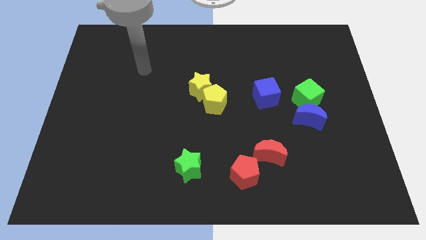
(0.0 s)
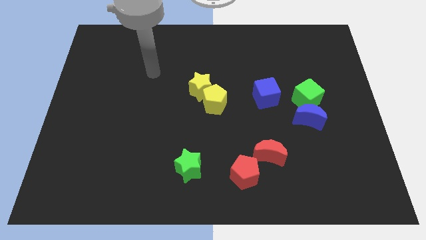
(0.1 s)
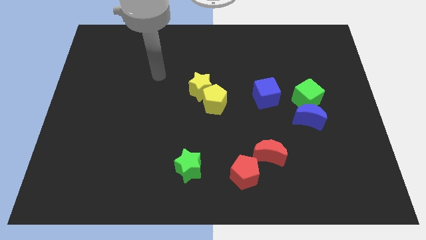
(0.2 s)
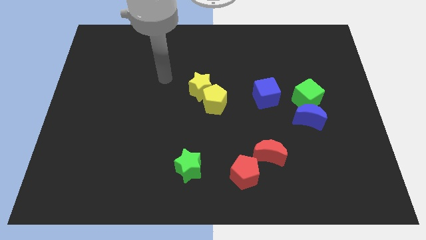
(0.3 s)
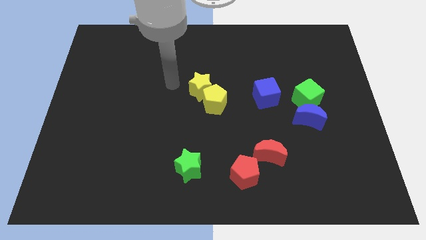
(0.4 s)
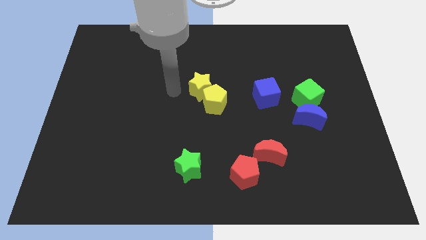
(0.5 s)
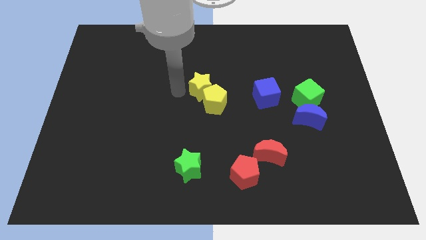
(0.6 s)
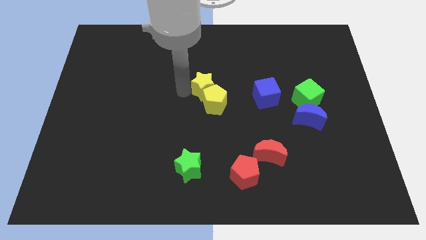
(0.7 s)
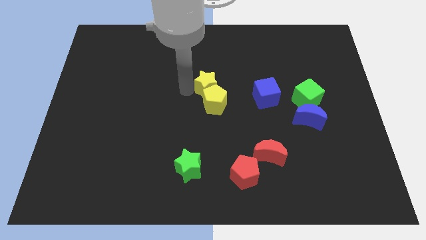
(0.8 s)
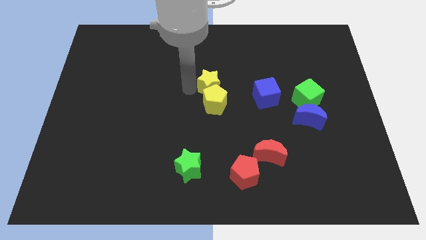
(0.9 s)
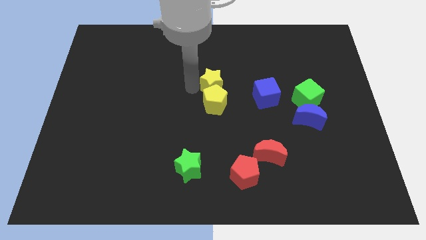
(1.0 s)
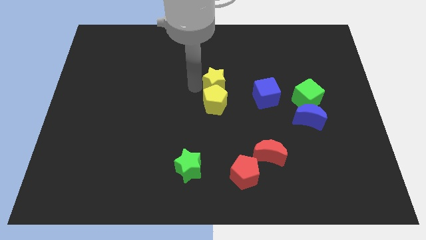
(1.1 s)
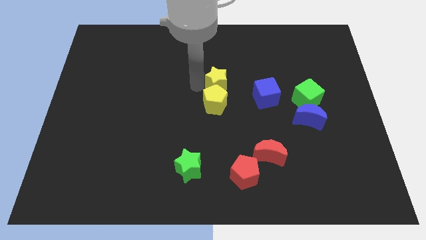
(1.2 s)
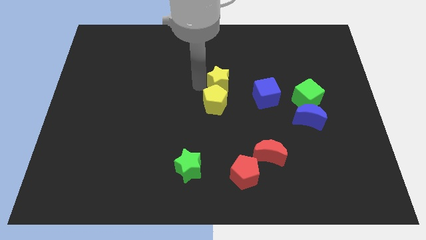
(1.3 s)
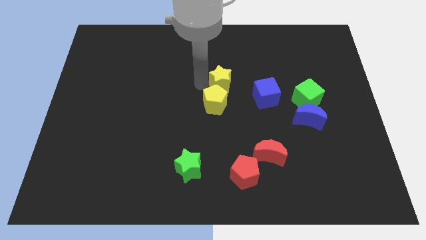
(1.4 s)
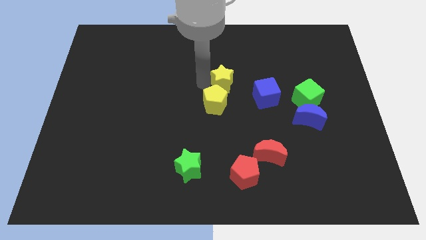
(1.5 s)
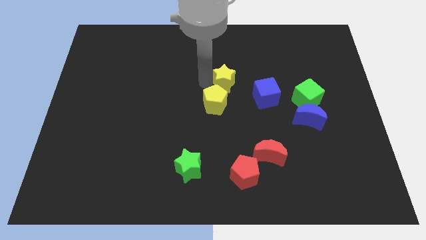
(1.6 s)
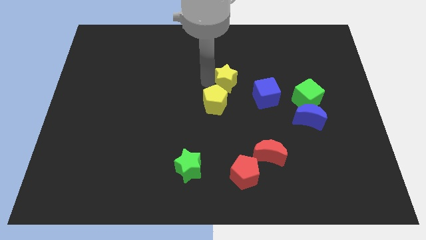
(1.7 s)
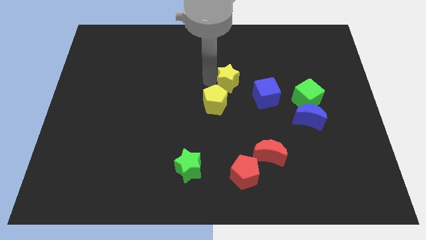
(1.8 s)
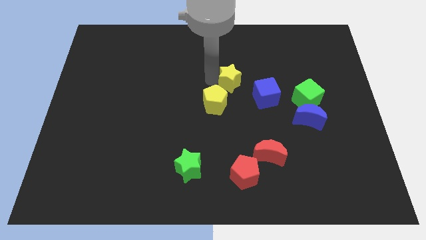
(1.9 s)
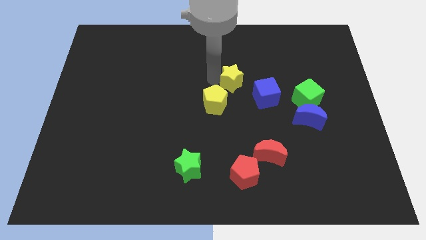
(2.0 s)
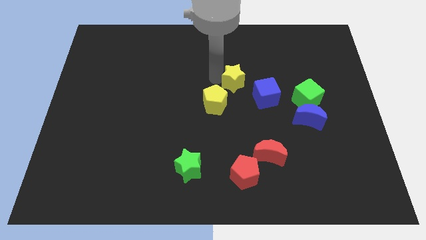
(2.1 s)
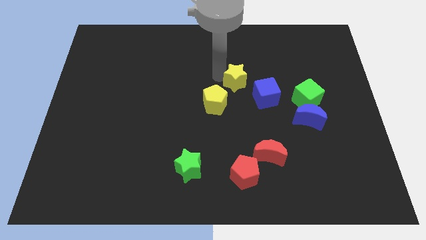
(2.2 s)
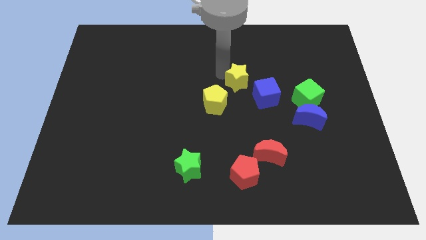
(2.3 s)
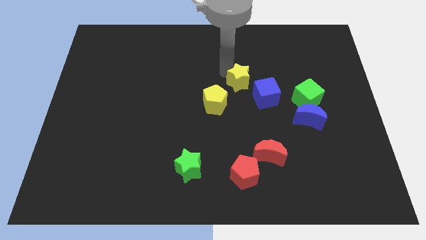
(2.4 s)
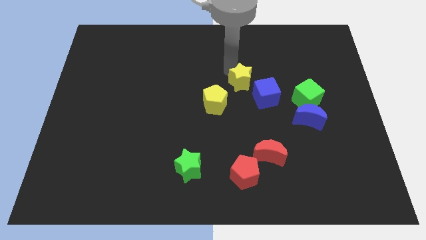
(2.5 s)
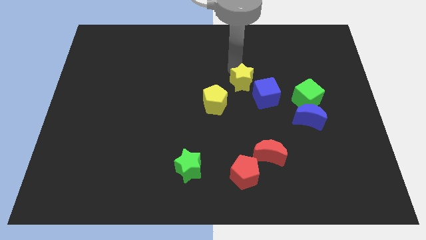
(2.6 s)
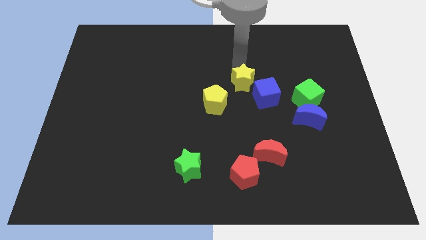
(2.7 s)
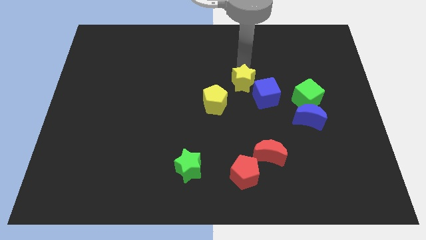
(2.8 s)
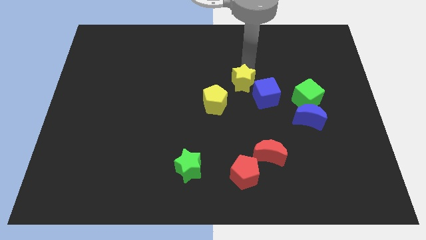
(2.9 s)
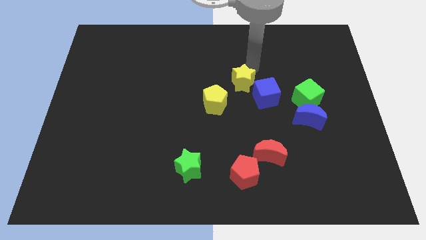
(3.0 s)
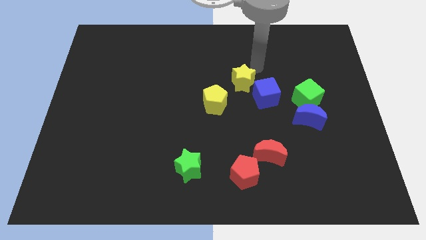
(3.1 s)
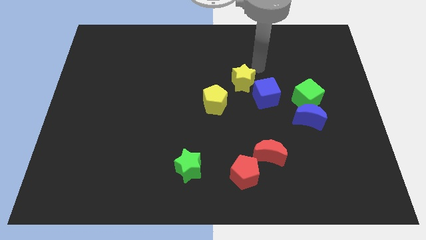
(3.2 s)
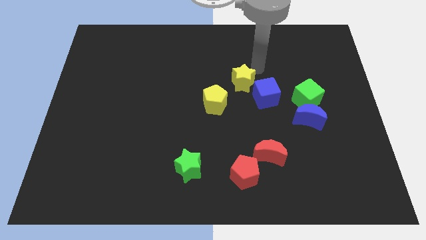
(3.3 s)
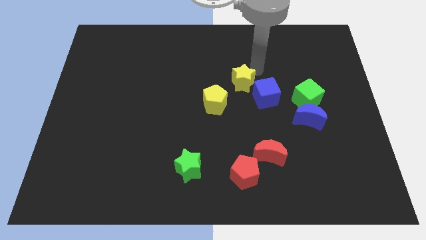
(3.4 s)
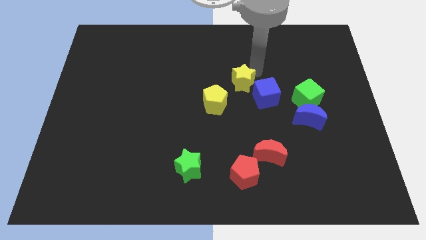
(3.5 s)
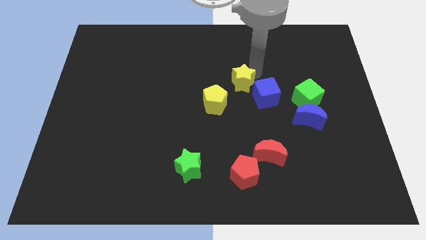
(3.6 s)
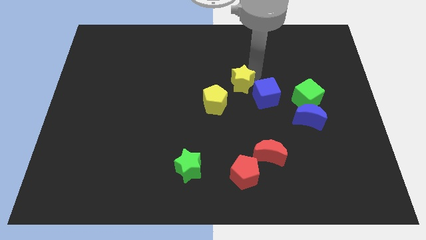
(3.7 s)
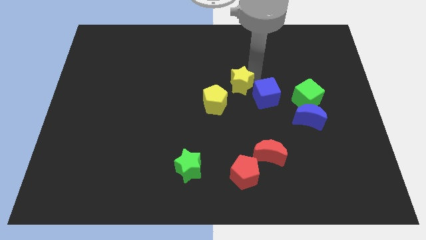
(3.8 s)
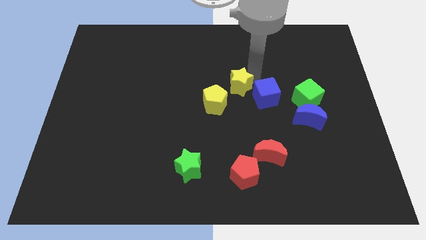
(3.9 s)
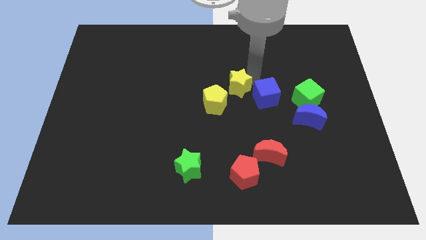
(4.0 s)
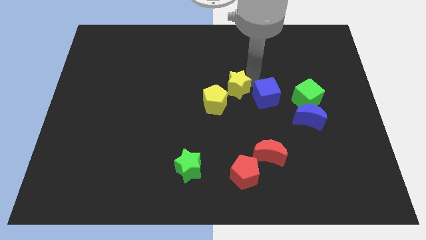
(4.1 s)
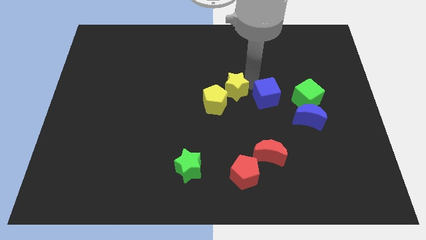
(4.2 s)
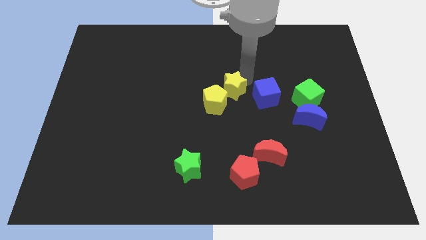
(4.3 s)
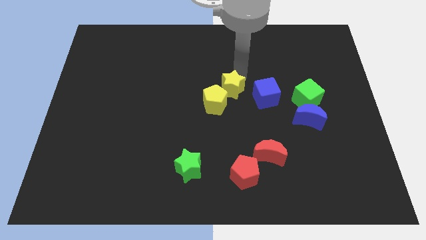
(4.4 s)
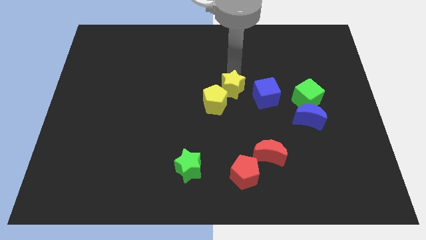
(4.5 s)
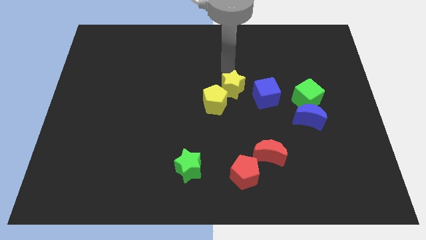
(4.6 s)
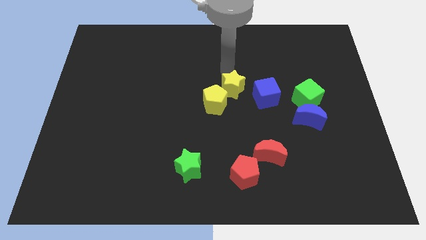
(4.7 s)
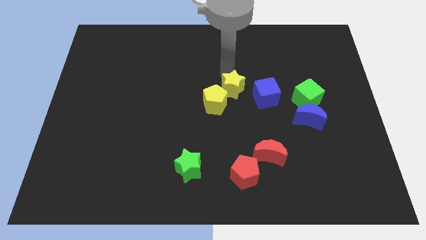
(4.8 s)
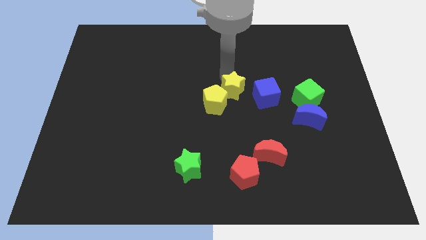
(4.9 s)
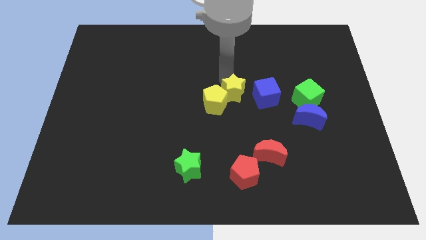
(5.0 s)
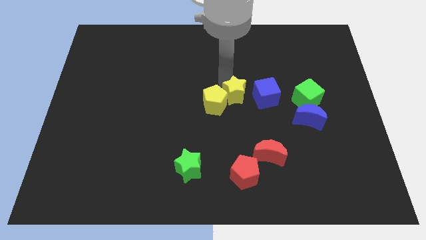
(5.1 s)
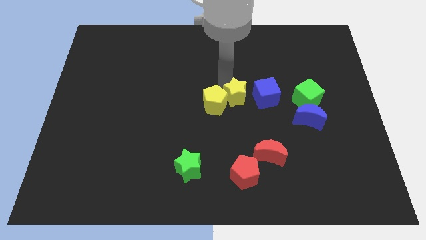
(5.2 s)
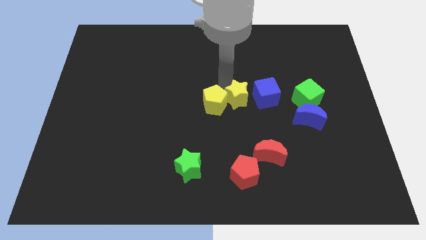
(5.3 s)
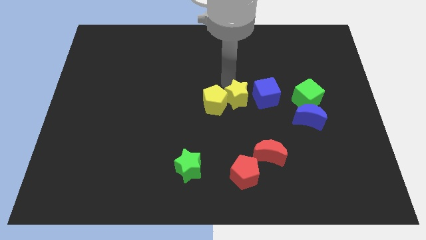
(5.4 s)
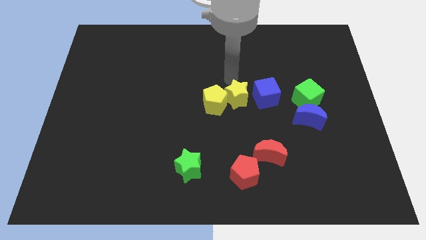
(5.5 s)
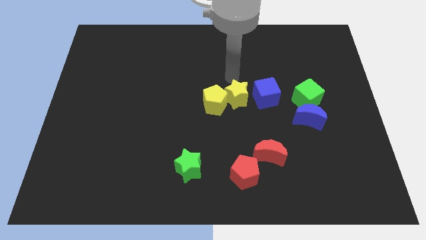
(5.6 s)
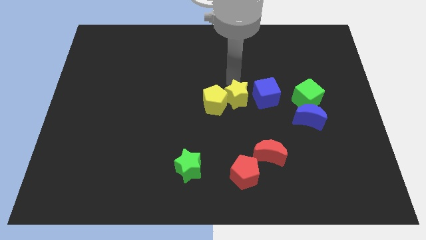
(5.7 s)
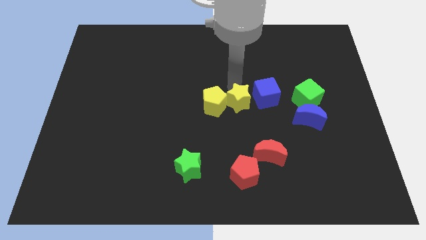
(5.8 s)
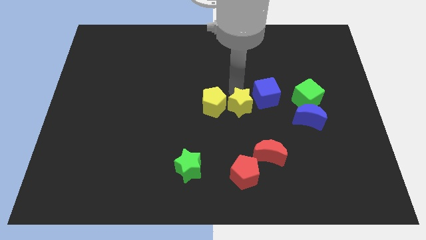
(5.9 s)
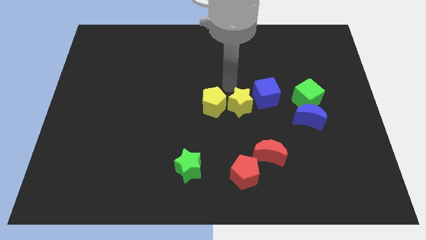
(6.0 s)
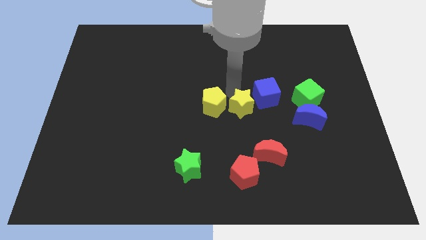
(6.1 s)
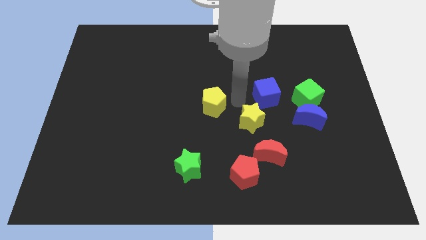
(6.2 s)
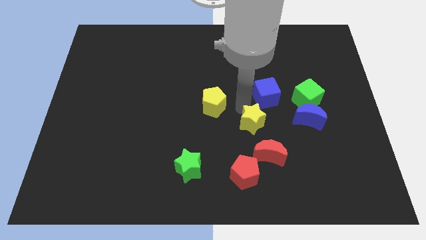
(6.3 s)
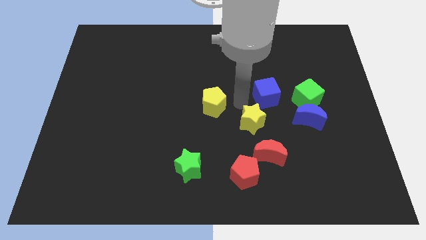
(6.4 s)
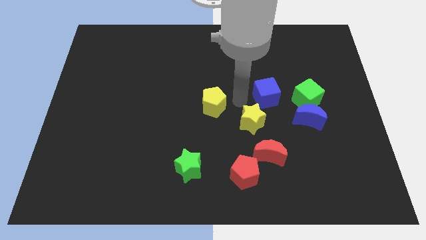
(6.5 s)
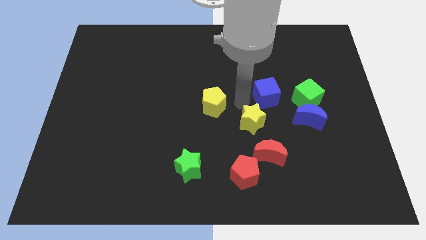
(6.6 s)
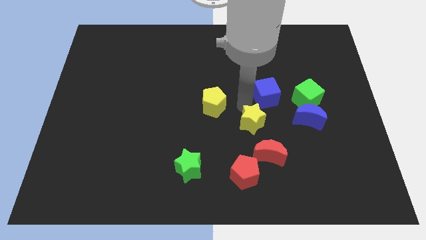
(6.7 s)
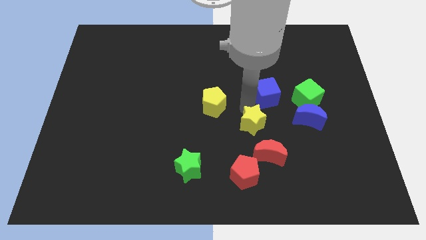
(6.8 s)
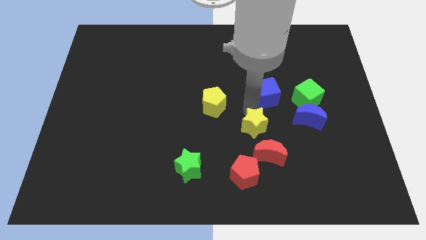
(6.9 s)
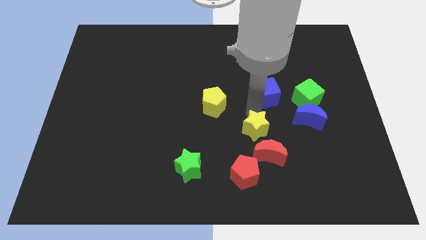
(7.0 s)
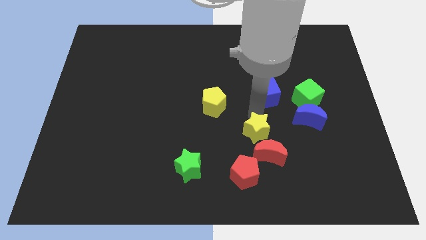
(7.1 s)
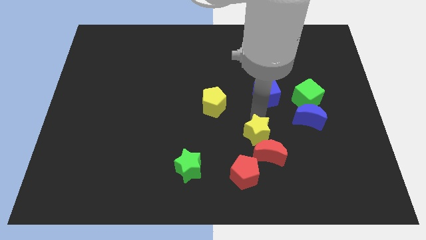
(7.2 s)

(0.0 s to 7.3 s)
put the yellow star next to the red moon
